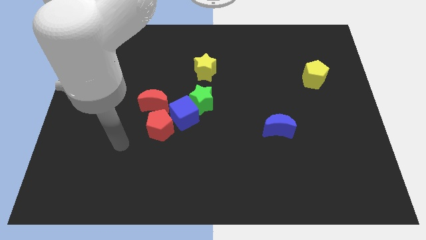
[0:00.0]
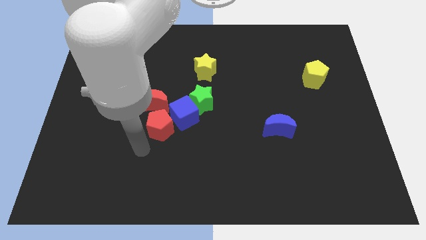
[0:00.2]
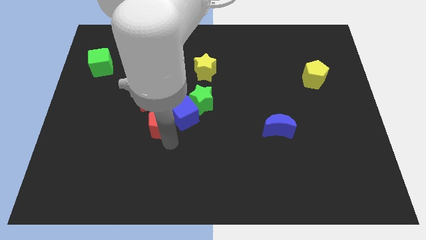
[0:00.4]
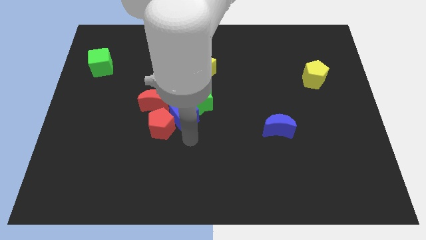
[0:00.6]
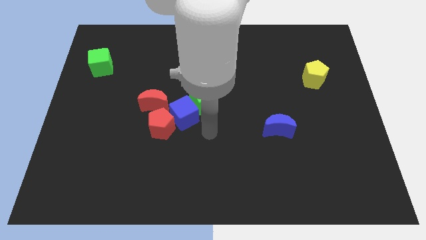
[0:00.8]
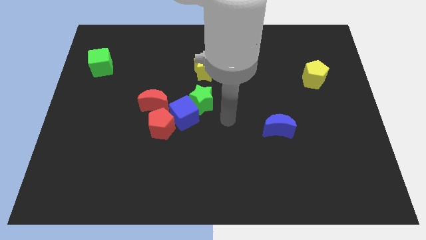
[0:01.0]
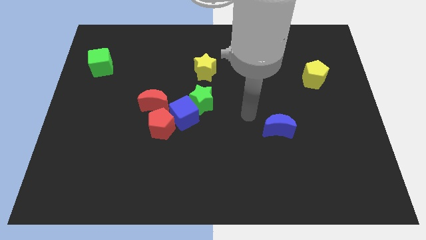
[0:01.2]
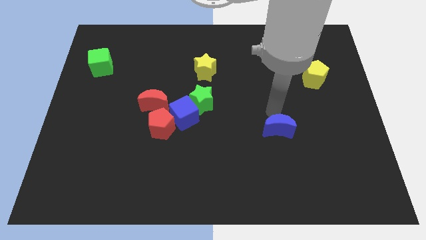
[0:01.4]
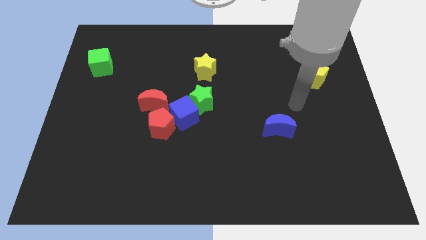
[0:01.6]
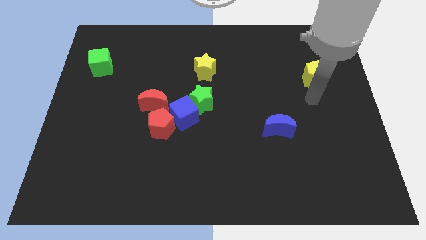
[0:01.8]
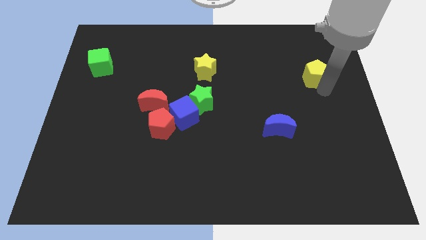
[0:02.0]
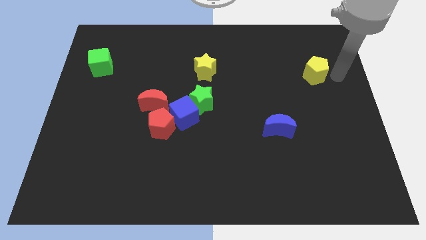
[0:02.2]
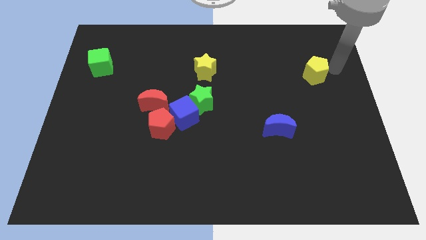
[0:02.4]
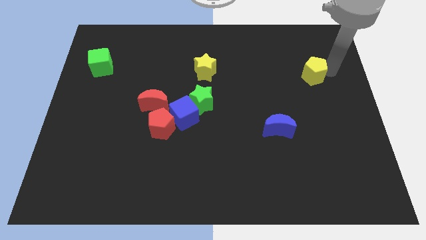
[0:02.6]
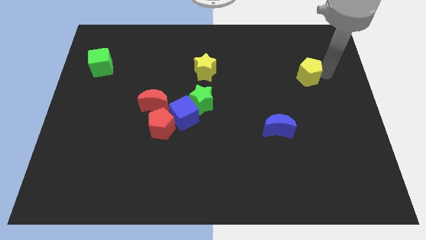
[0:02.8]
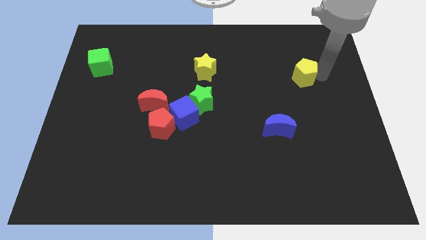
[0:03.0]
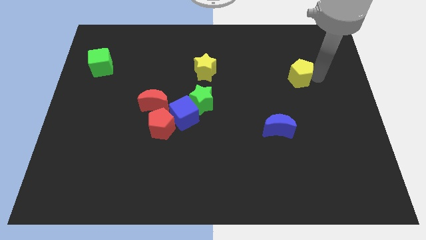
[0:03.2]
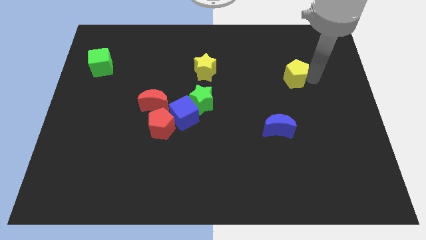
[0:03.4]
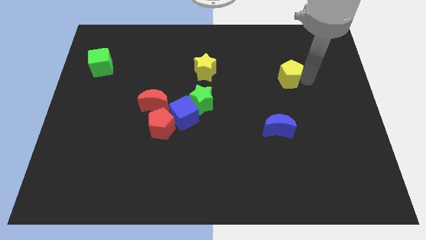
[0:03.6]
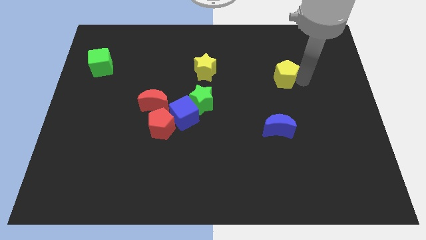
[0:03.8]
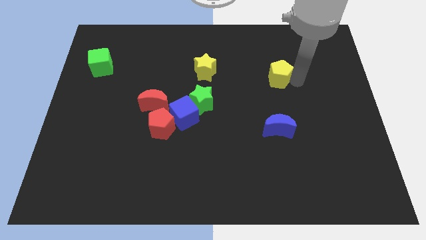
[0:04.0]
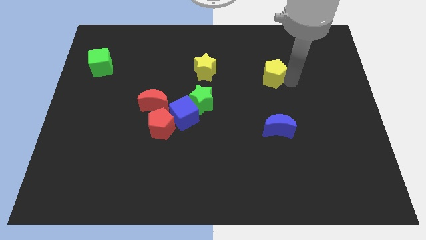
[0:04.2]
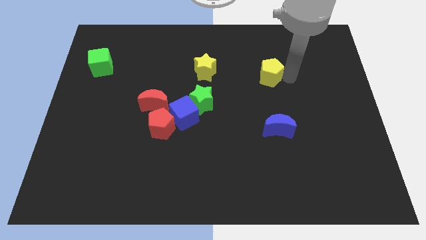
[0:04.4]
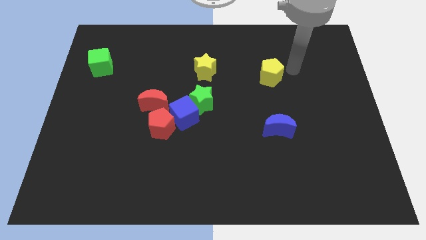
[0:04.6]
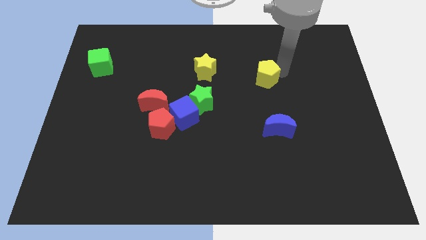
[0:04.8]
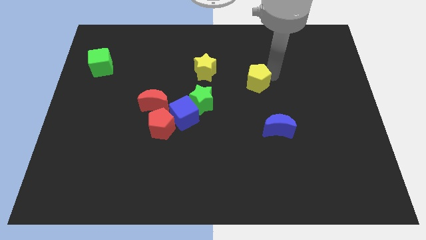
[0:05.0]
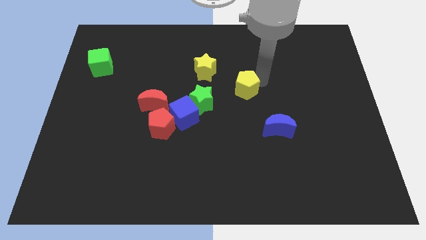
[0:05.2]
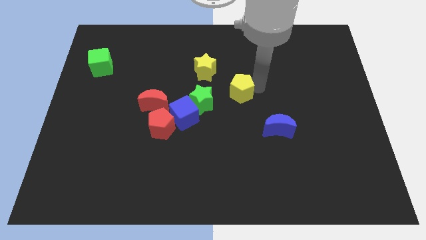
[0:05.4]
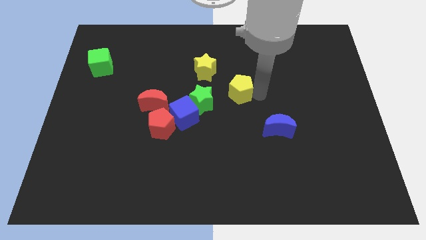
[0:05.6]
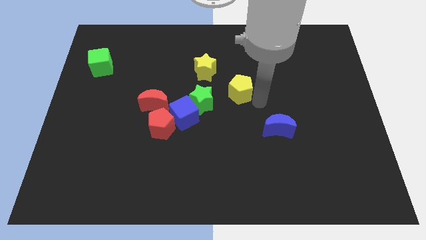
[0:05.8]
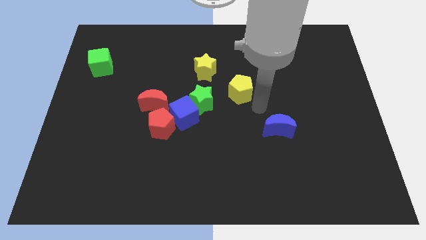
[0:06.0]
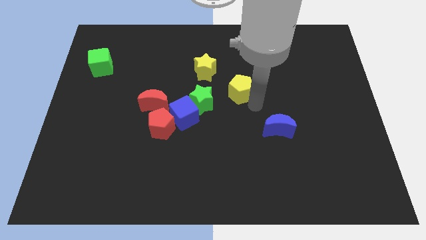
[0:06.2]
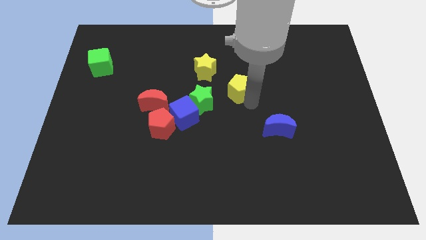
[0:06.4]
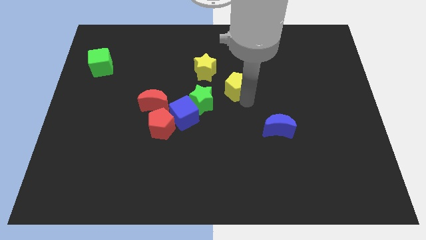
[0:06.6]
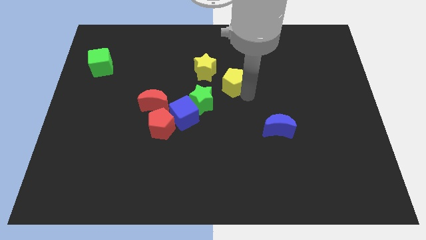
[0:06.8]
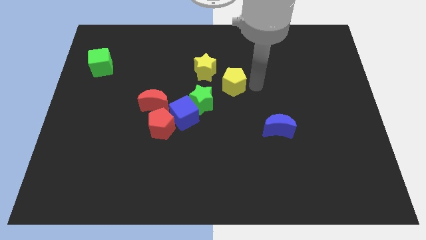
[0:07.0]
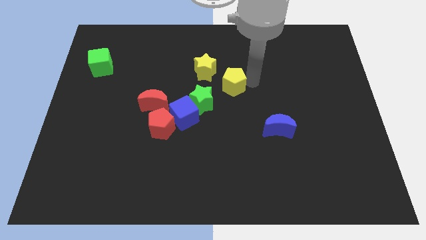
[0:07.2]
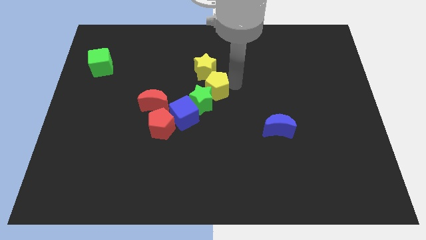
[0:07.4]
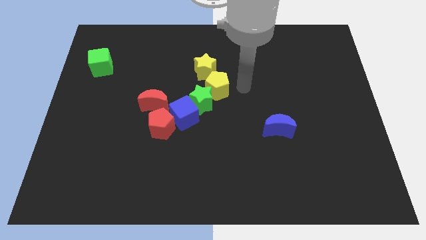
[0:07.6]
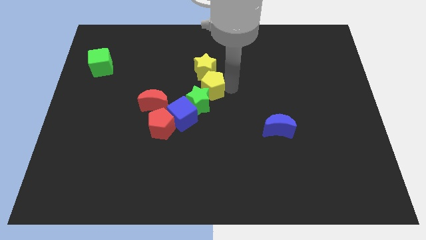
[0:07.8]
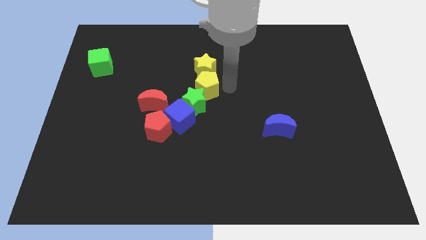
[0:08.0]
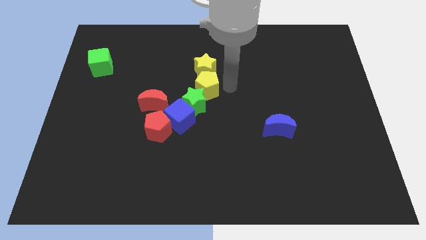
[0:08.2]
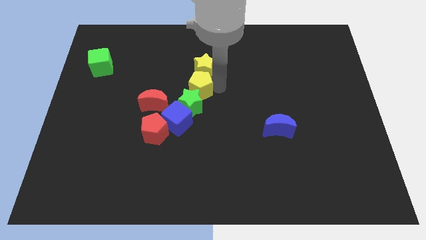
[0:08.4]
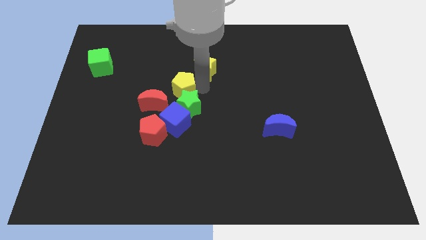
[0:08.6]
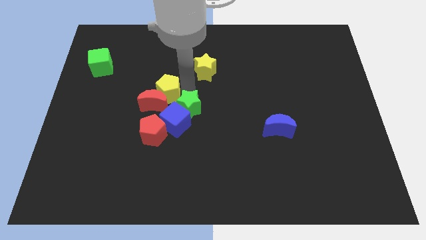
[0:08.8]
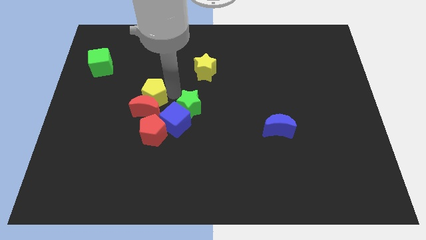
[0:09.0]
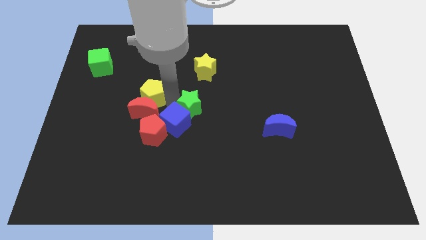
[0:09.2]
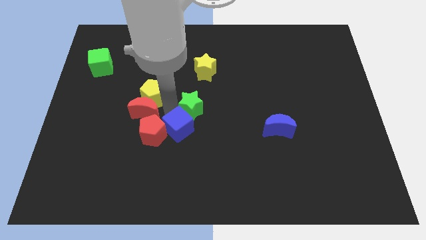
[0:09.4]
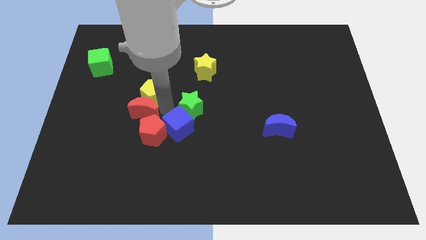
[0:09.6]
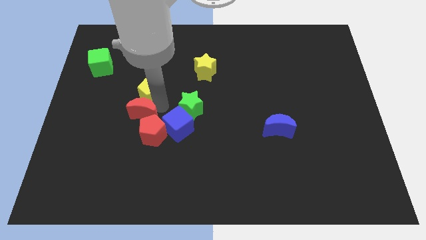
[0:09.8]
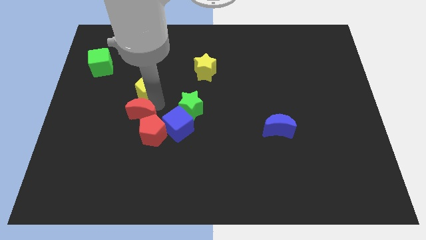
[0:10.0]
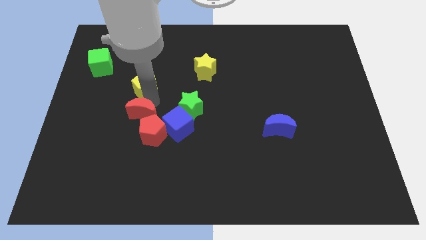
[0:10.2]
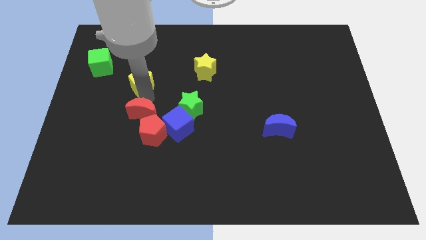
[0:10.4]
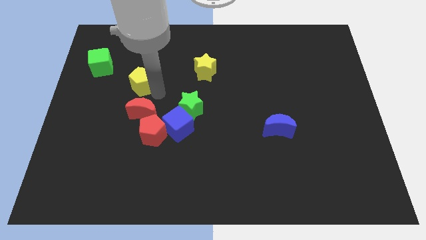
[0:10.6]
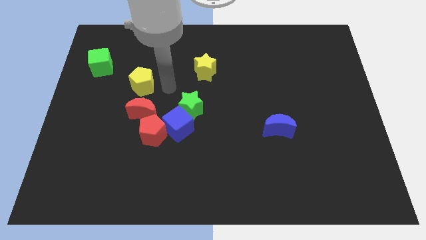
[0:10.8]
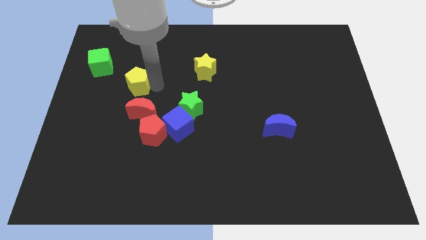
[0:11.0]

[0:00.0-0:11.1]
move the yellow pentagon to the bottom right side of the green cube

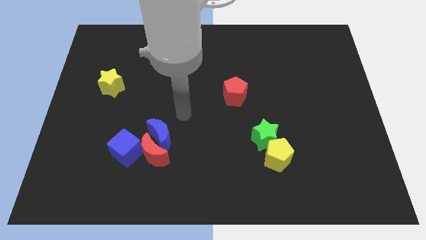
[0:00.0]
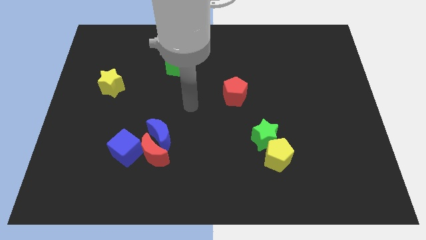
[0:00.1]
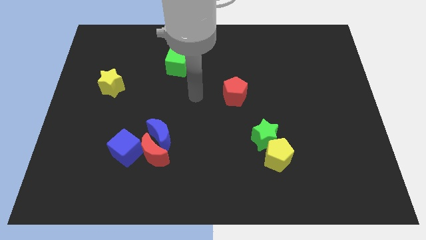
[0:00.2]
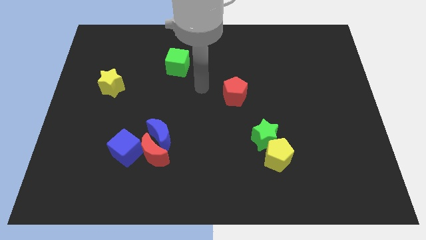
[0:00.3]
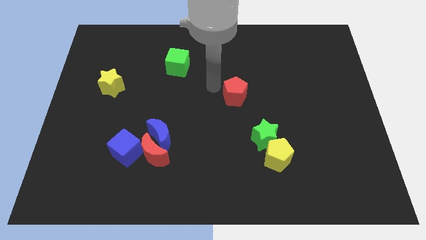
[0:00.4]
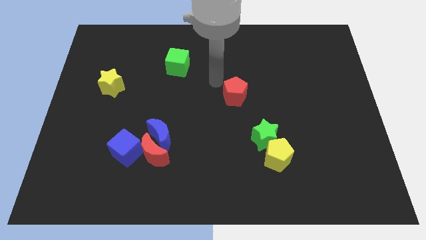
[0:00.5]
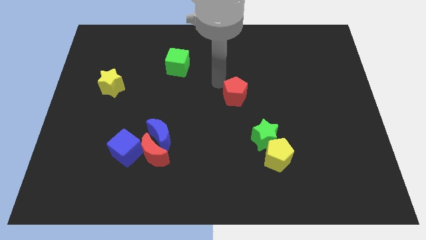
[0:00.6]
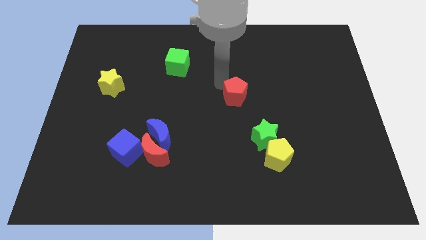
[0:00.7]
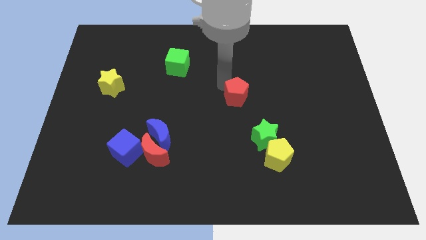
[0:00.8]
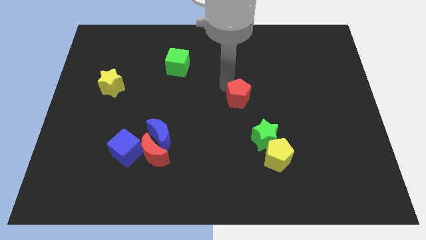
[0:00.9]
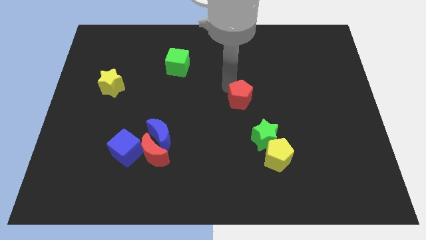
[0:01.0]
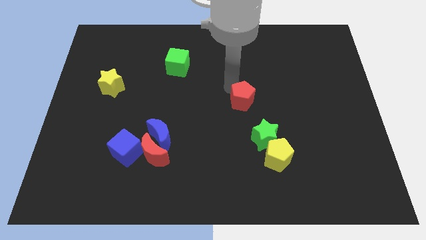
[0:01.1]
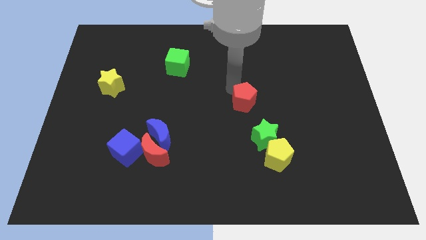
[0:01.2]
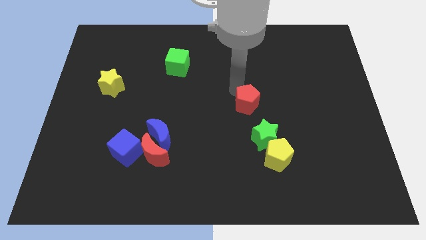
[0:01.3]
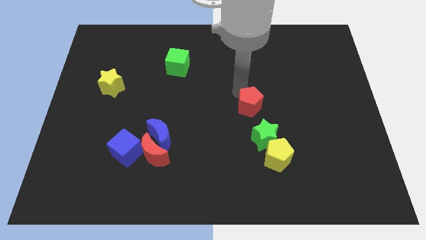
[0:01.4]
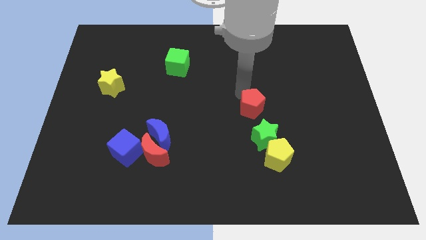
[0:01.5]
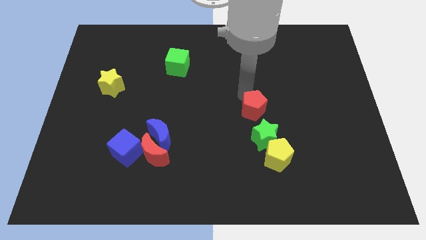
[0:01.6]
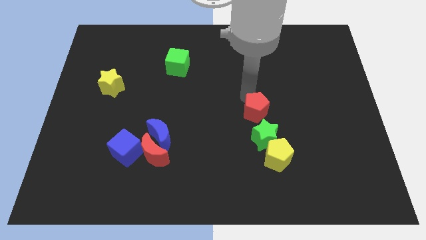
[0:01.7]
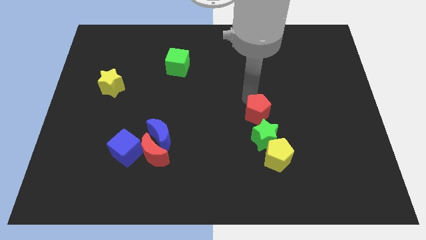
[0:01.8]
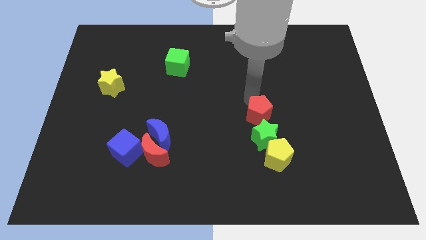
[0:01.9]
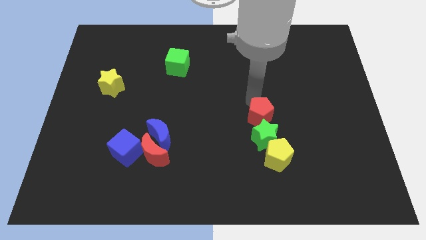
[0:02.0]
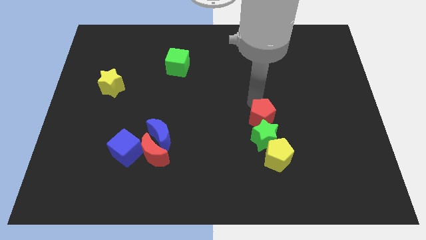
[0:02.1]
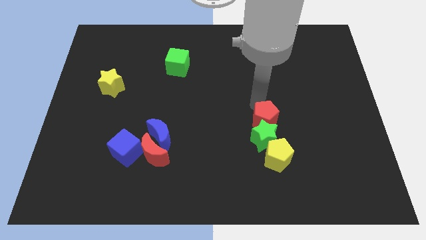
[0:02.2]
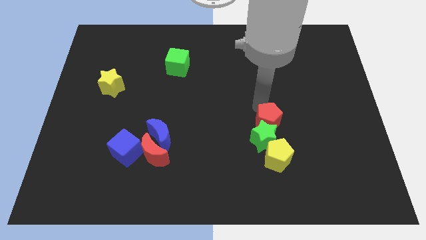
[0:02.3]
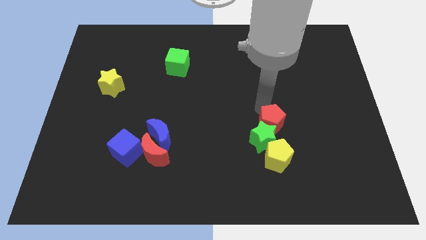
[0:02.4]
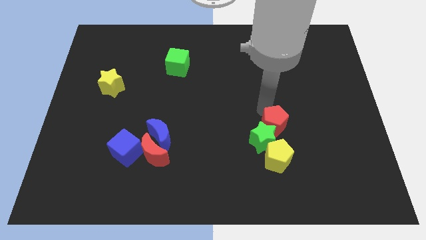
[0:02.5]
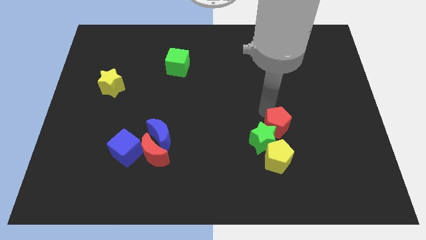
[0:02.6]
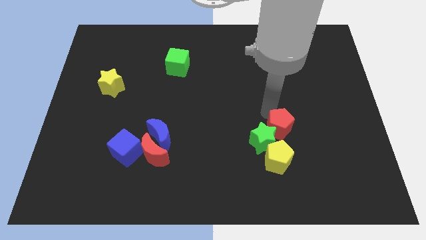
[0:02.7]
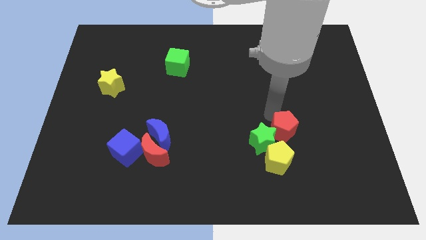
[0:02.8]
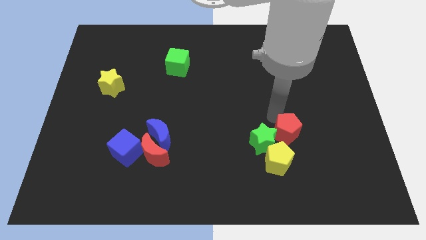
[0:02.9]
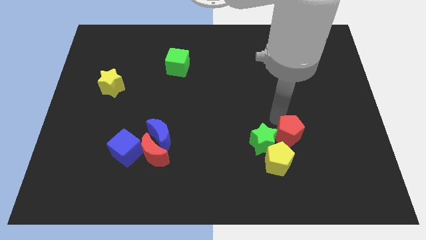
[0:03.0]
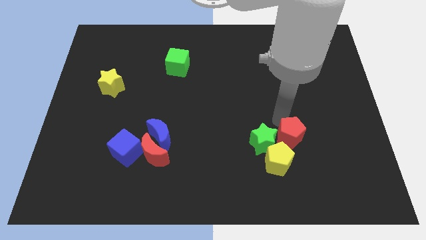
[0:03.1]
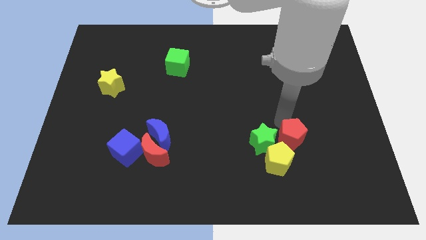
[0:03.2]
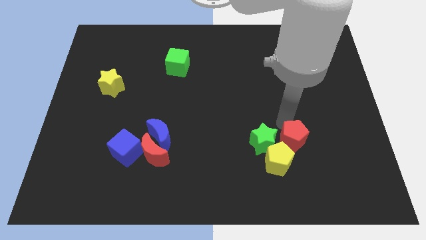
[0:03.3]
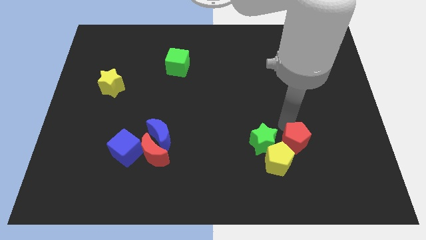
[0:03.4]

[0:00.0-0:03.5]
put the red pentagon to the bottom right side of the green star
